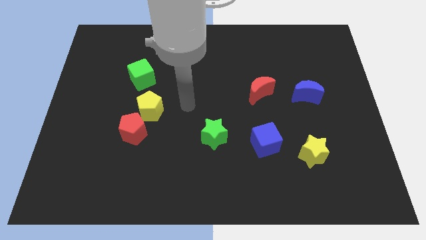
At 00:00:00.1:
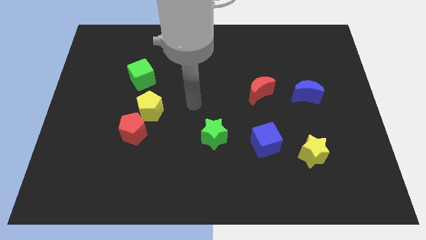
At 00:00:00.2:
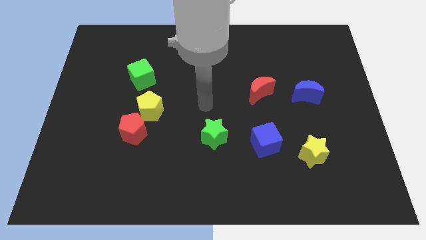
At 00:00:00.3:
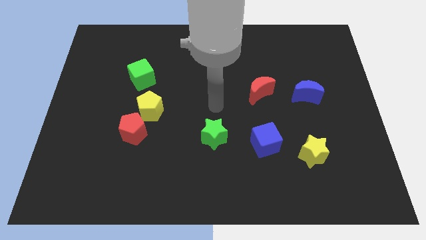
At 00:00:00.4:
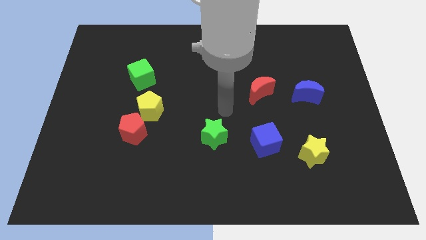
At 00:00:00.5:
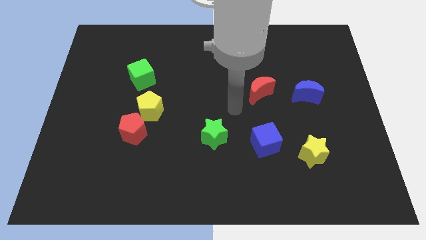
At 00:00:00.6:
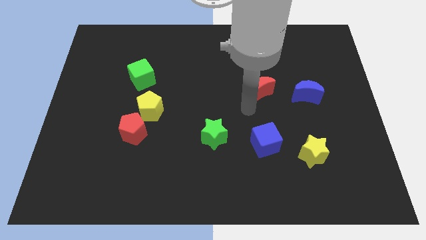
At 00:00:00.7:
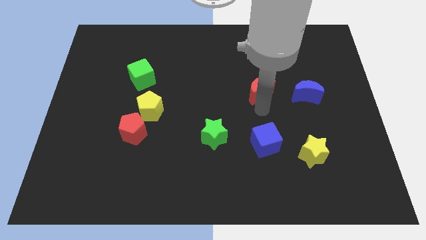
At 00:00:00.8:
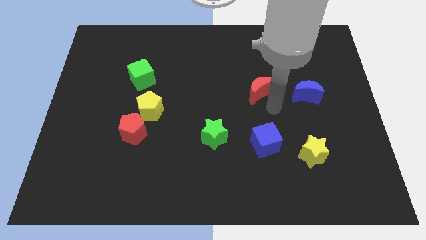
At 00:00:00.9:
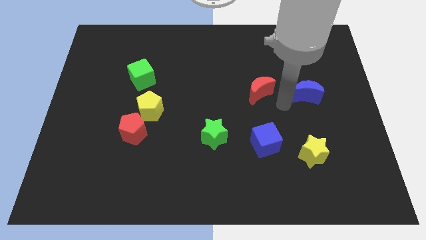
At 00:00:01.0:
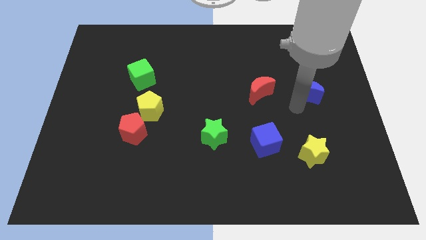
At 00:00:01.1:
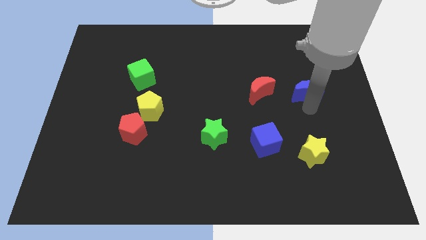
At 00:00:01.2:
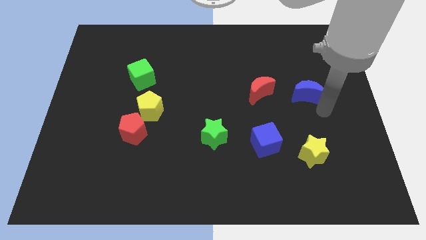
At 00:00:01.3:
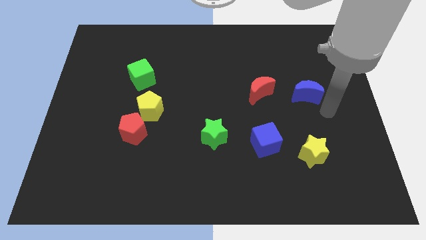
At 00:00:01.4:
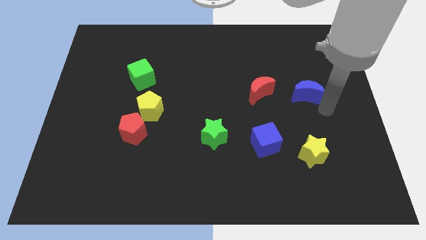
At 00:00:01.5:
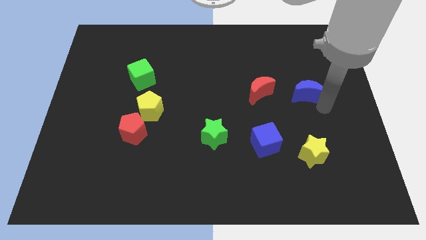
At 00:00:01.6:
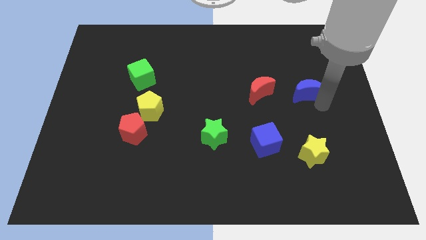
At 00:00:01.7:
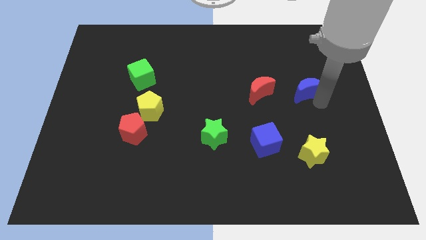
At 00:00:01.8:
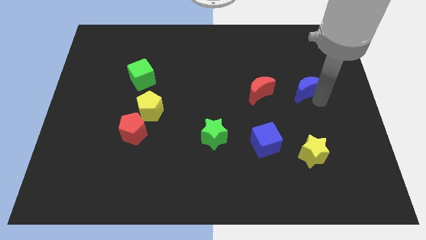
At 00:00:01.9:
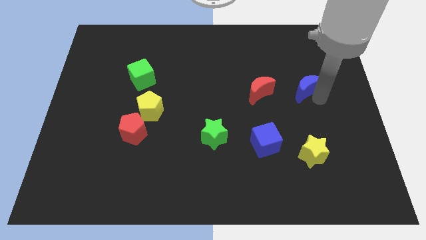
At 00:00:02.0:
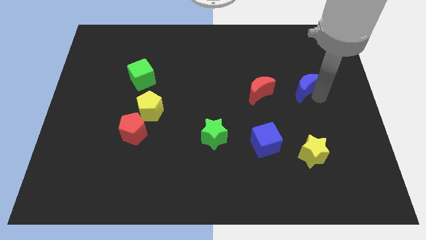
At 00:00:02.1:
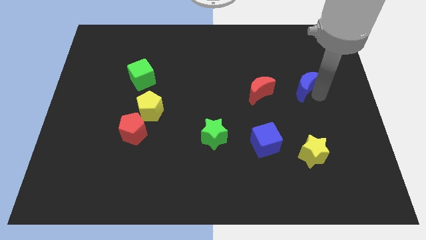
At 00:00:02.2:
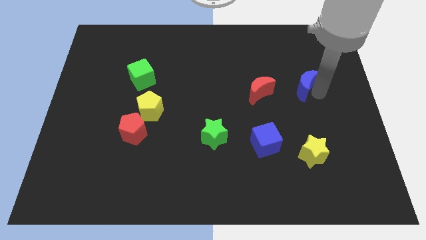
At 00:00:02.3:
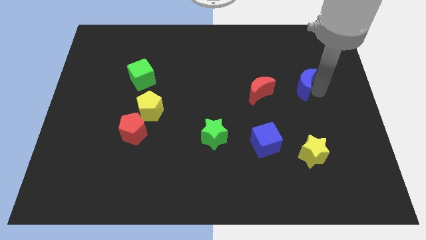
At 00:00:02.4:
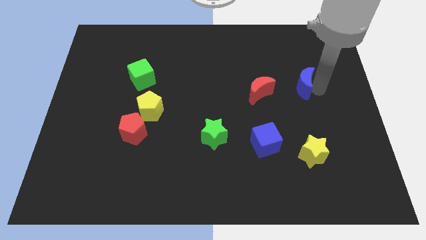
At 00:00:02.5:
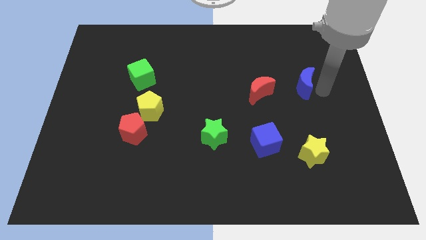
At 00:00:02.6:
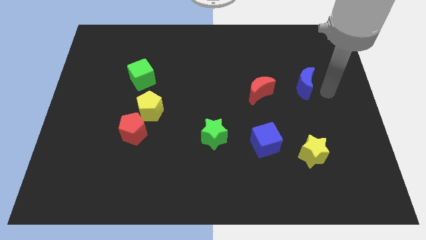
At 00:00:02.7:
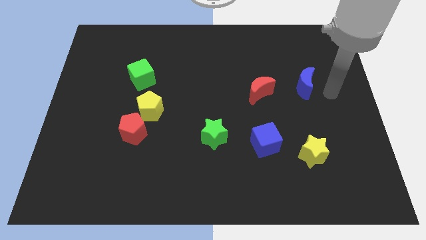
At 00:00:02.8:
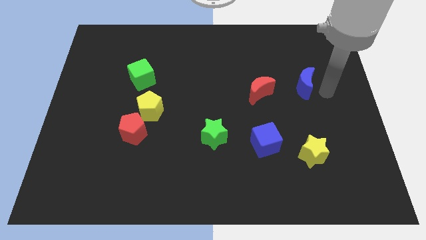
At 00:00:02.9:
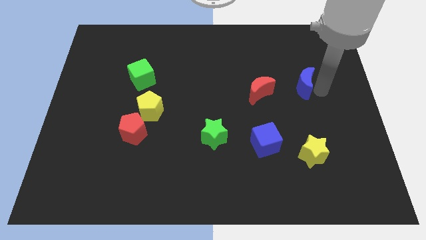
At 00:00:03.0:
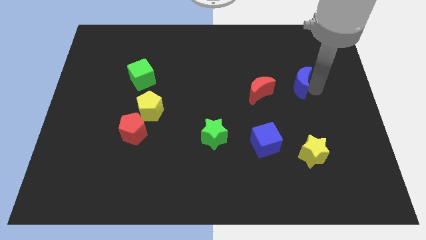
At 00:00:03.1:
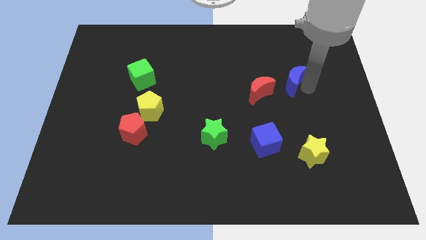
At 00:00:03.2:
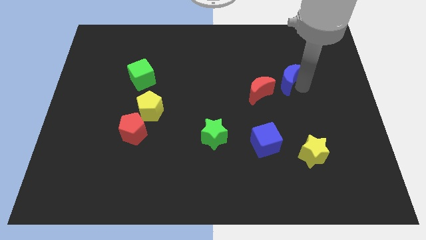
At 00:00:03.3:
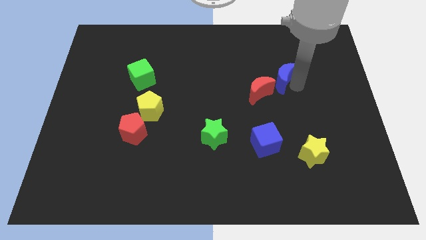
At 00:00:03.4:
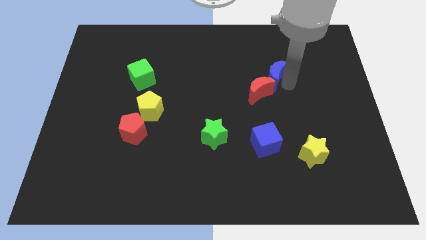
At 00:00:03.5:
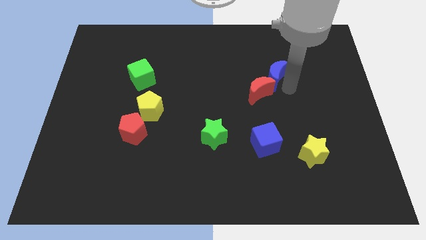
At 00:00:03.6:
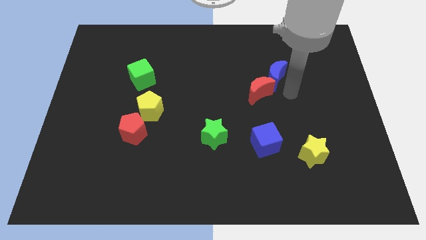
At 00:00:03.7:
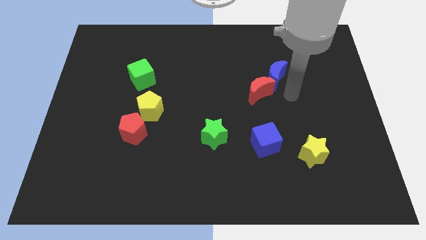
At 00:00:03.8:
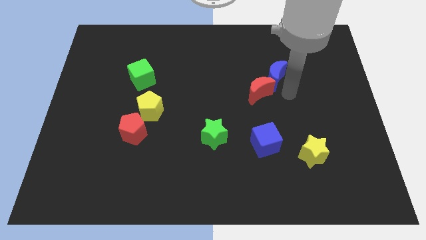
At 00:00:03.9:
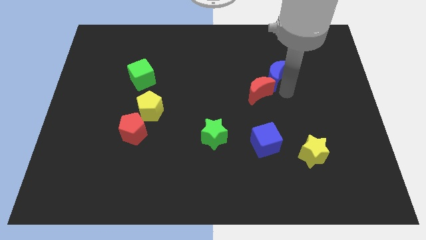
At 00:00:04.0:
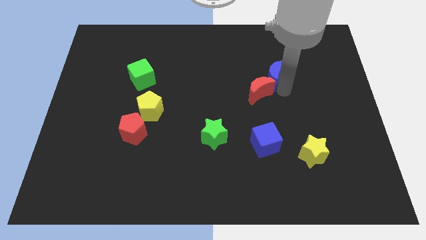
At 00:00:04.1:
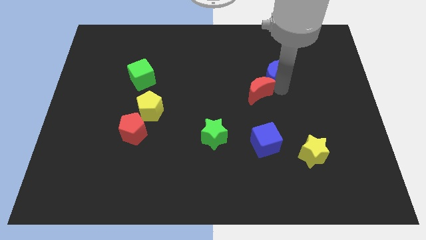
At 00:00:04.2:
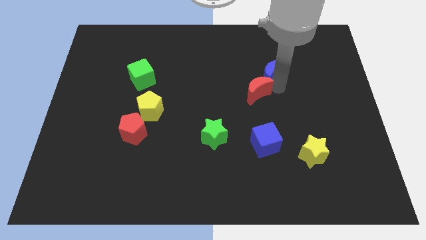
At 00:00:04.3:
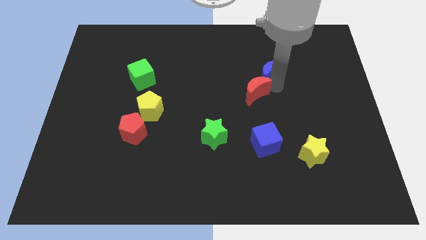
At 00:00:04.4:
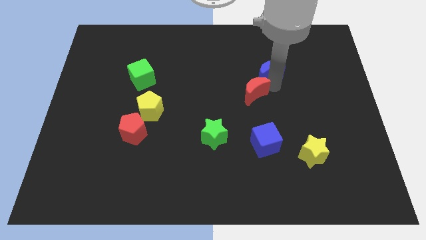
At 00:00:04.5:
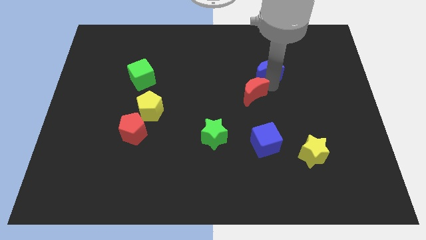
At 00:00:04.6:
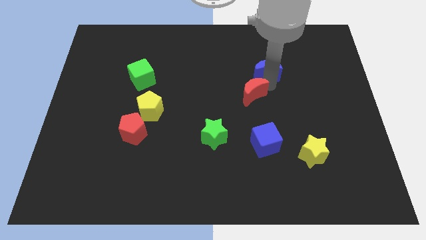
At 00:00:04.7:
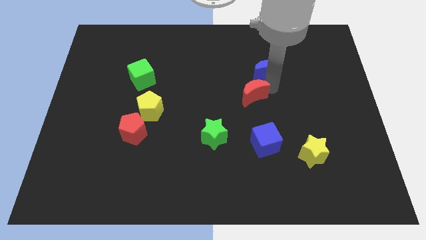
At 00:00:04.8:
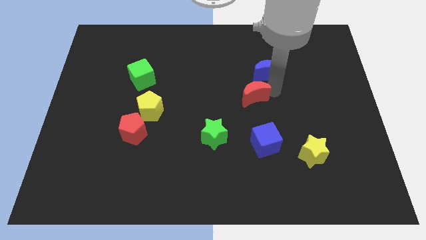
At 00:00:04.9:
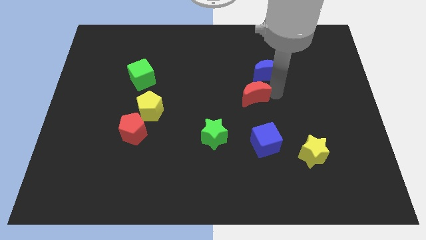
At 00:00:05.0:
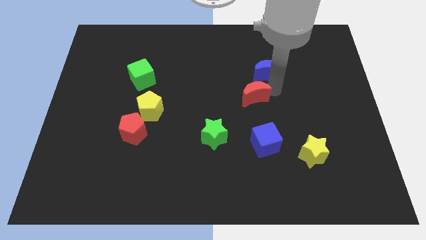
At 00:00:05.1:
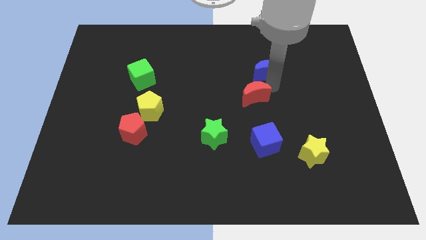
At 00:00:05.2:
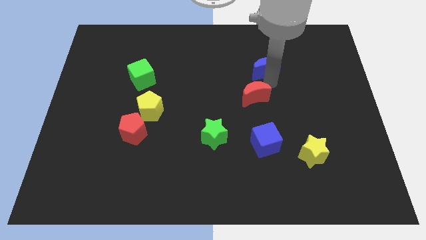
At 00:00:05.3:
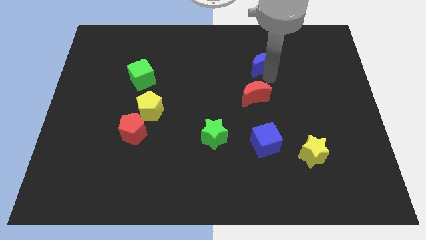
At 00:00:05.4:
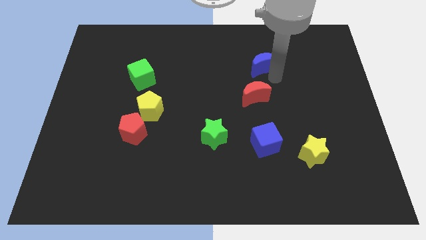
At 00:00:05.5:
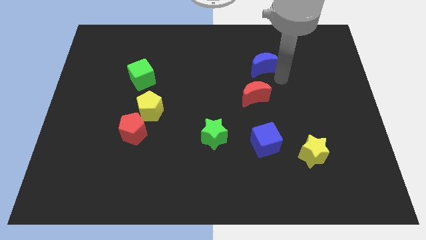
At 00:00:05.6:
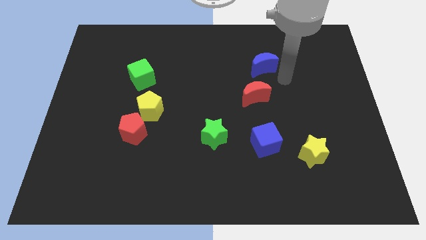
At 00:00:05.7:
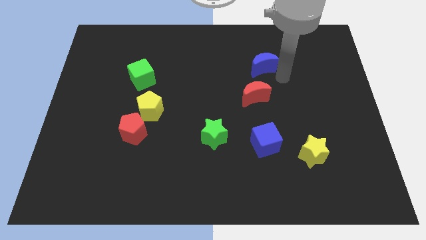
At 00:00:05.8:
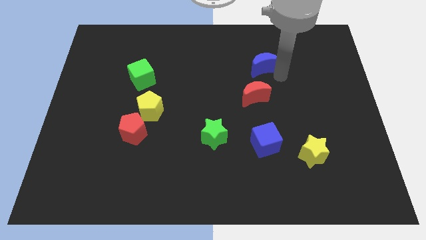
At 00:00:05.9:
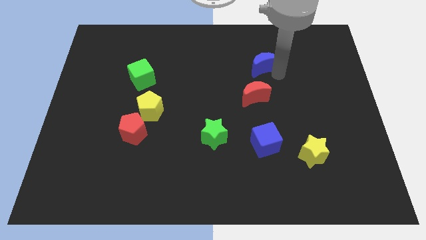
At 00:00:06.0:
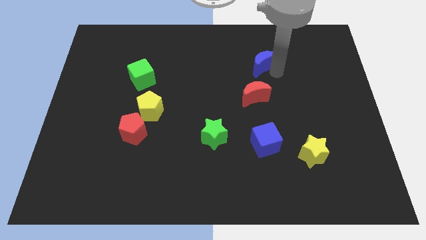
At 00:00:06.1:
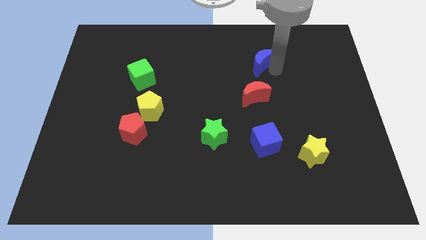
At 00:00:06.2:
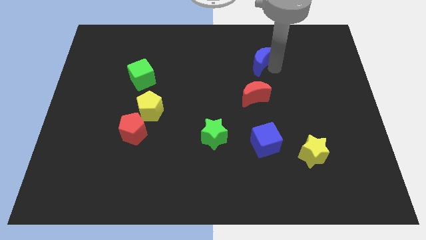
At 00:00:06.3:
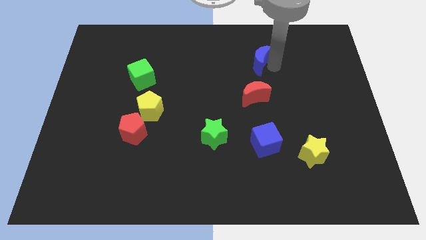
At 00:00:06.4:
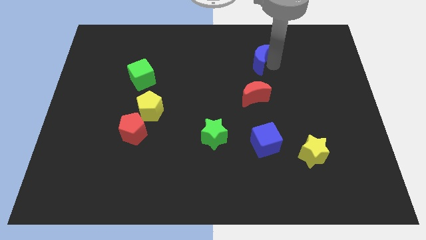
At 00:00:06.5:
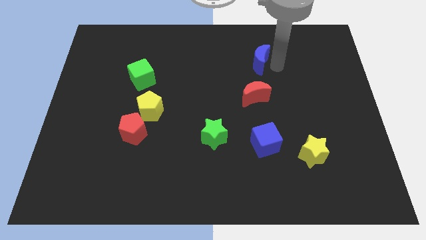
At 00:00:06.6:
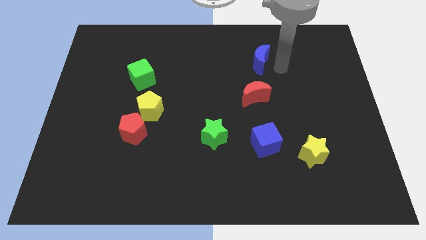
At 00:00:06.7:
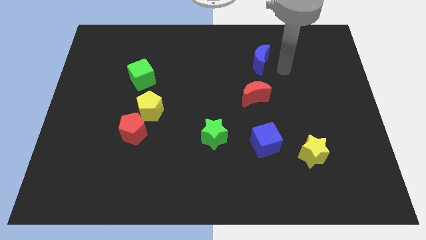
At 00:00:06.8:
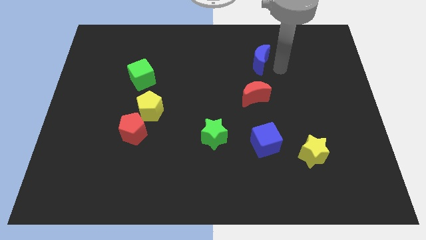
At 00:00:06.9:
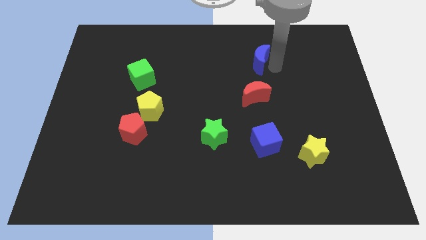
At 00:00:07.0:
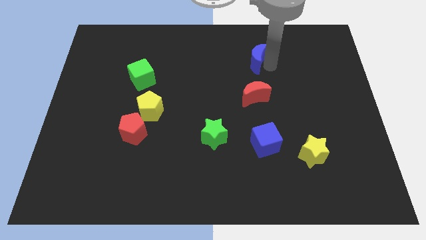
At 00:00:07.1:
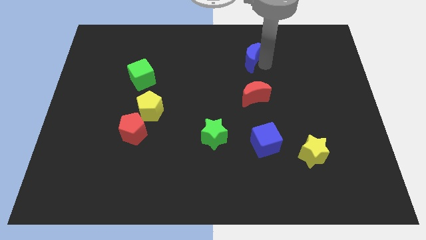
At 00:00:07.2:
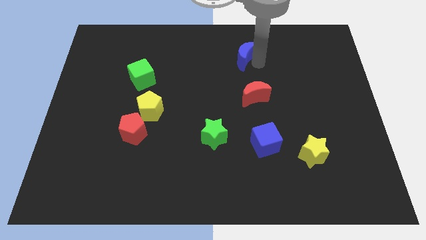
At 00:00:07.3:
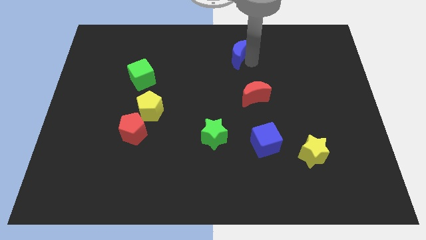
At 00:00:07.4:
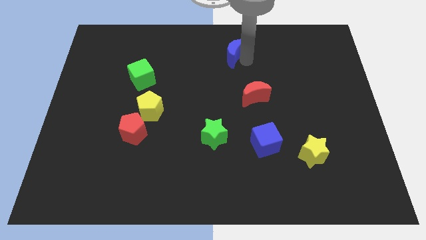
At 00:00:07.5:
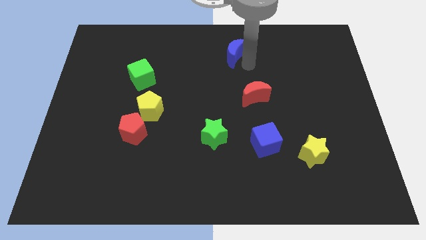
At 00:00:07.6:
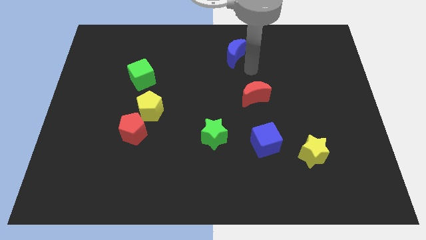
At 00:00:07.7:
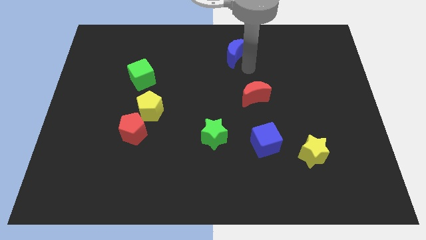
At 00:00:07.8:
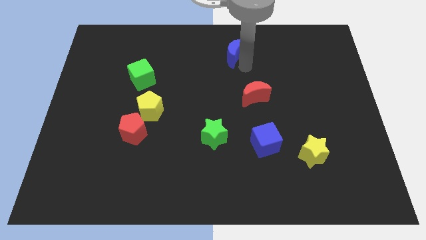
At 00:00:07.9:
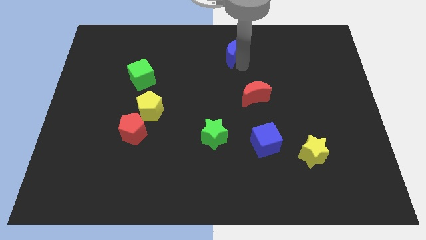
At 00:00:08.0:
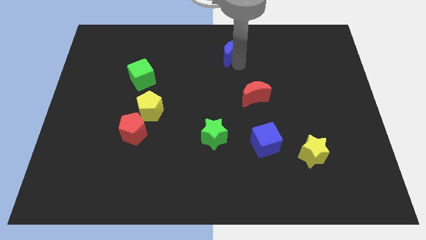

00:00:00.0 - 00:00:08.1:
move the blue moon to the top side
